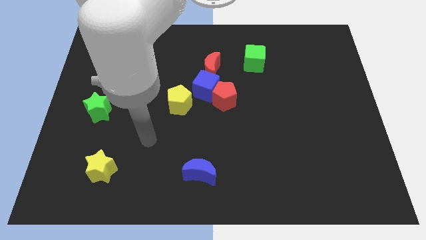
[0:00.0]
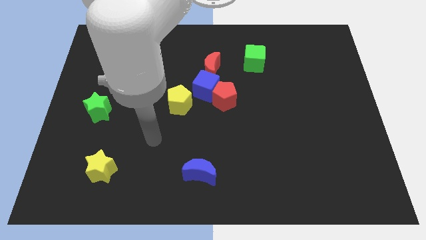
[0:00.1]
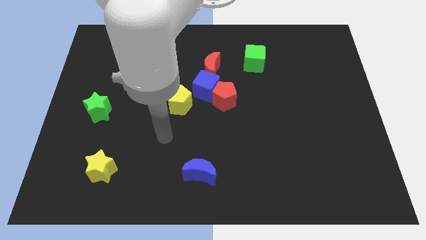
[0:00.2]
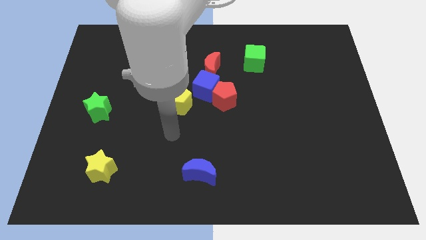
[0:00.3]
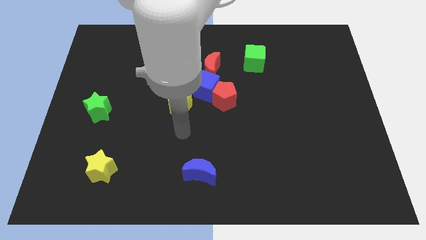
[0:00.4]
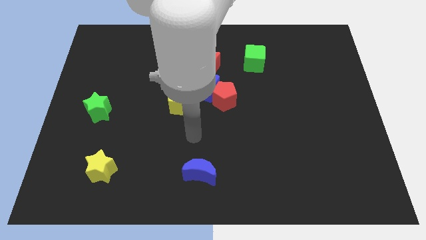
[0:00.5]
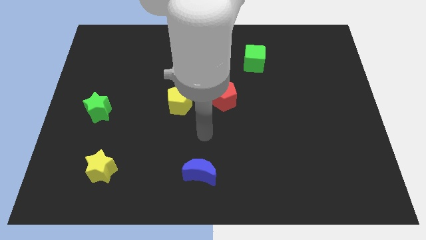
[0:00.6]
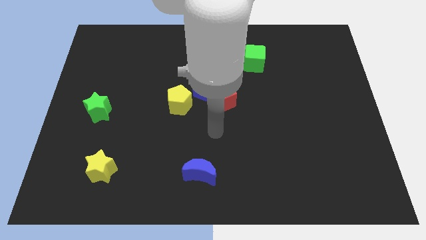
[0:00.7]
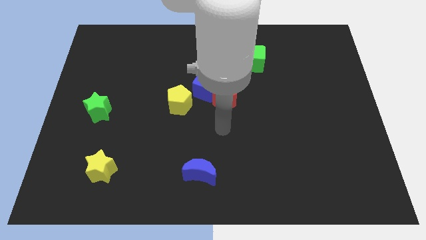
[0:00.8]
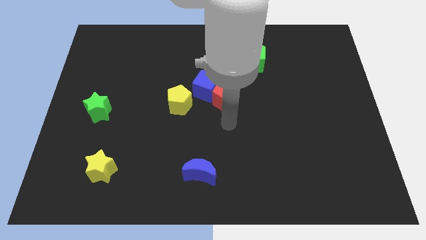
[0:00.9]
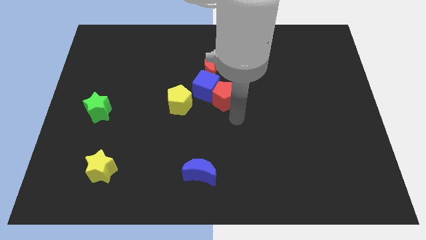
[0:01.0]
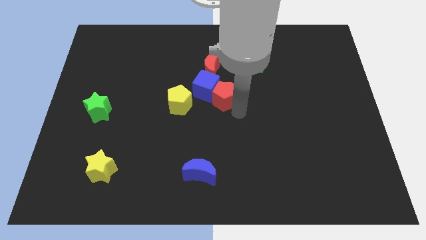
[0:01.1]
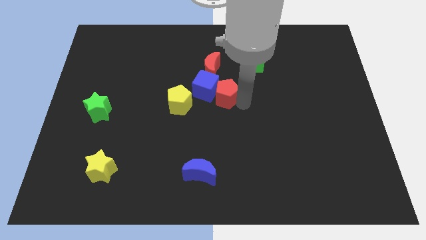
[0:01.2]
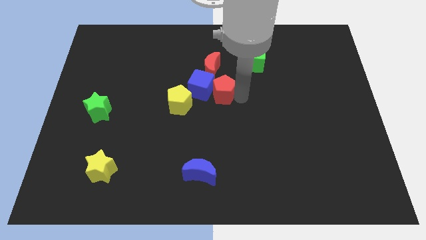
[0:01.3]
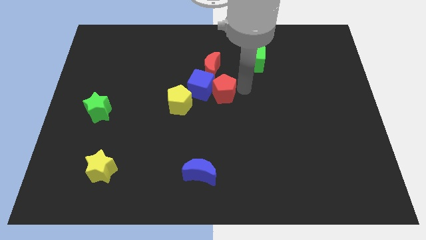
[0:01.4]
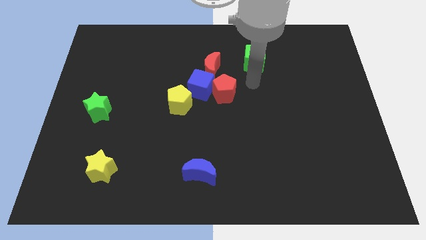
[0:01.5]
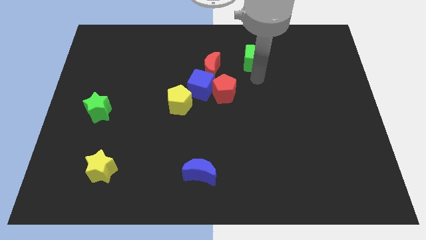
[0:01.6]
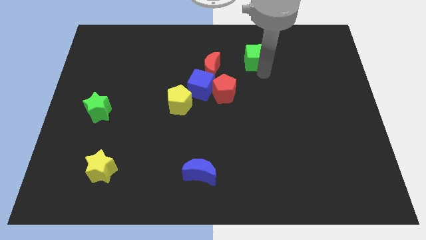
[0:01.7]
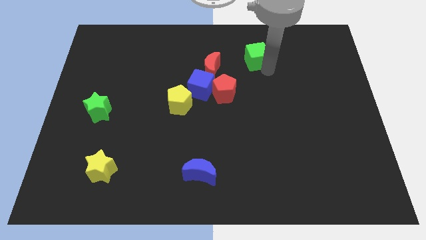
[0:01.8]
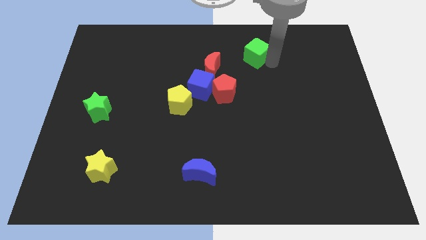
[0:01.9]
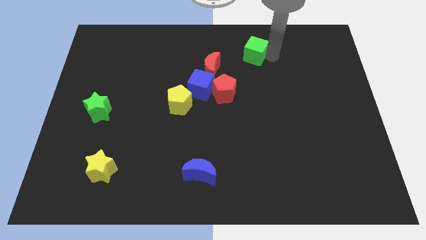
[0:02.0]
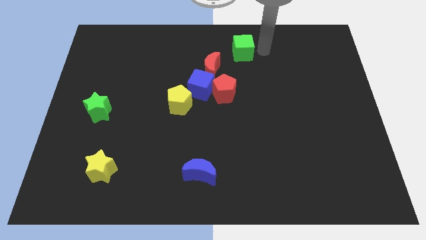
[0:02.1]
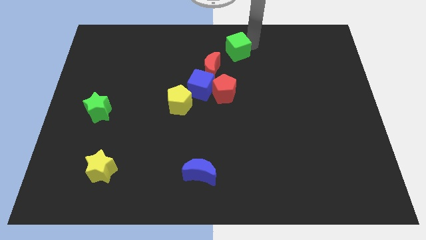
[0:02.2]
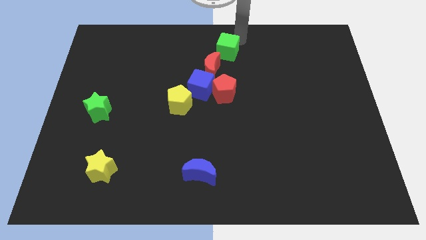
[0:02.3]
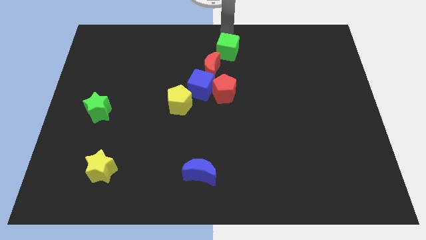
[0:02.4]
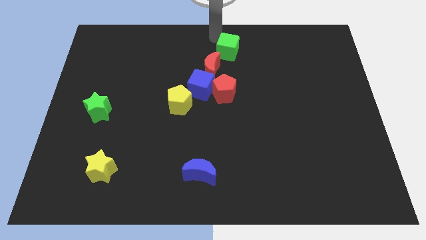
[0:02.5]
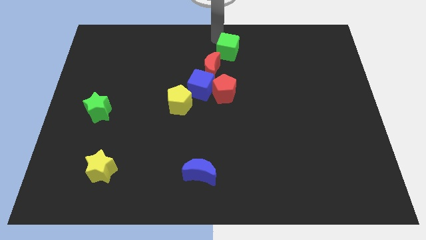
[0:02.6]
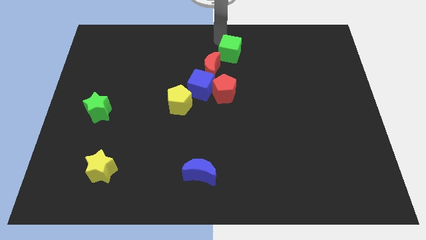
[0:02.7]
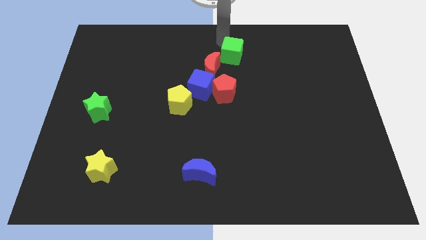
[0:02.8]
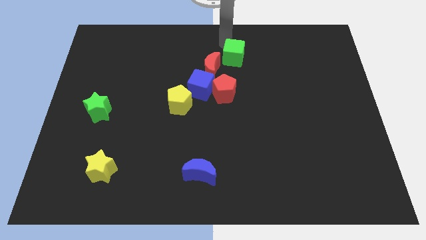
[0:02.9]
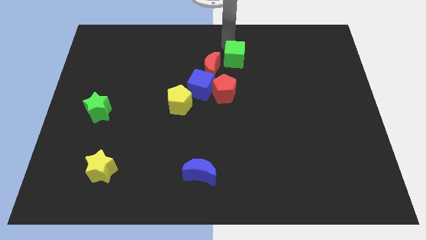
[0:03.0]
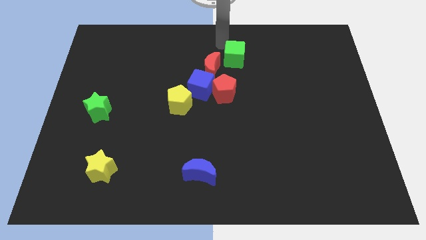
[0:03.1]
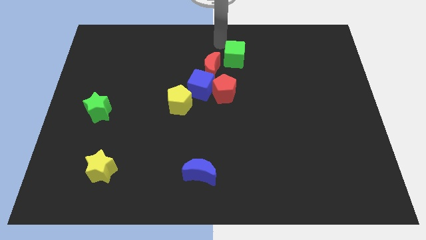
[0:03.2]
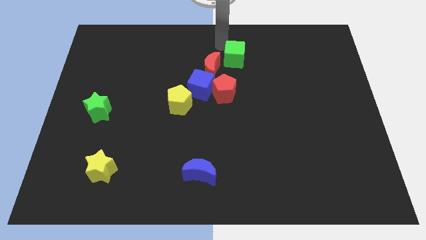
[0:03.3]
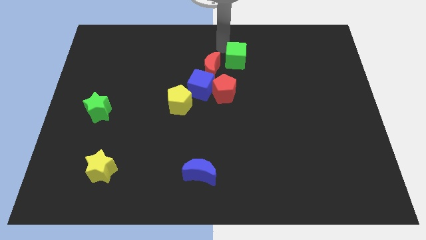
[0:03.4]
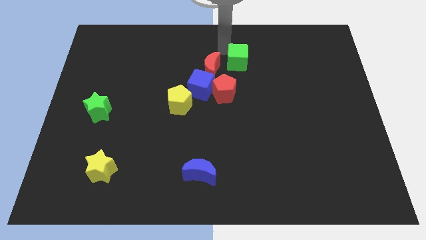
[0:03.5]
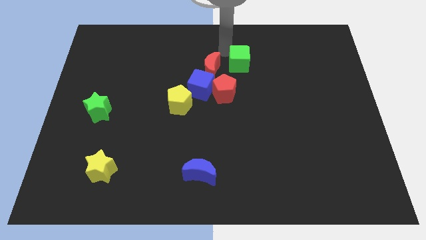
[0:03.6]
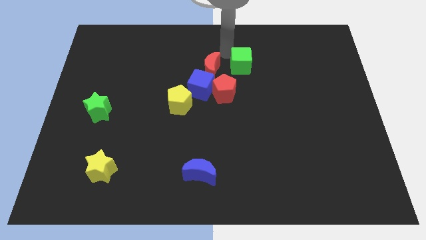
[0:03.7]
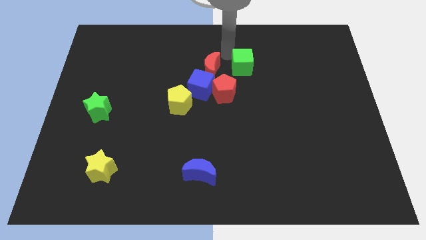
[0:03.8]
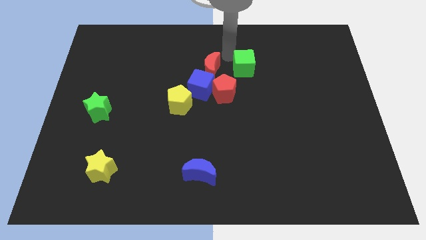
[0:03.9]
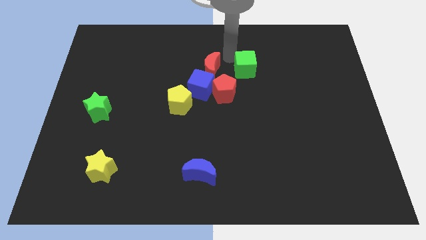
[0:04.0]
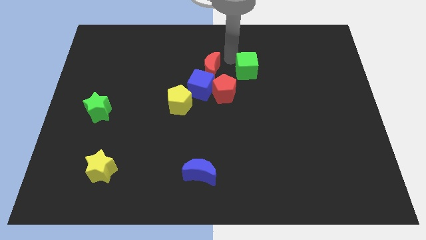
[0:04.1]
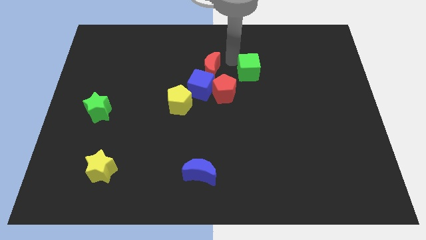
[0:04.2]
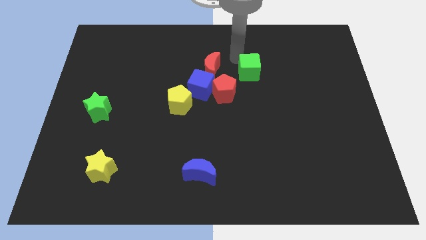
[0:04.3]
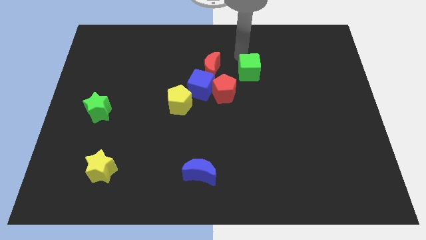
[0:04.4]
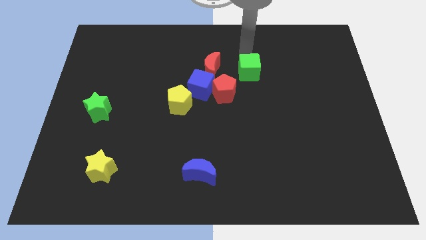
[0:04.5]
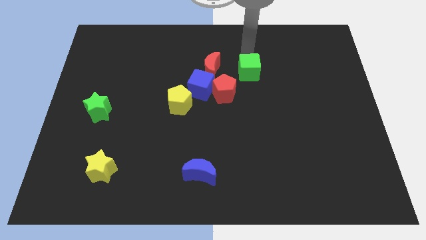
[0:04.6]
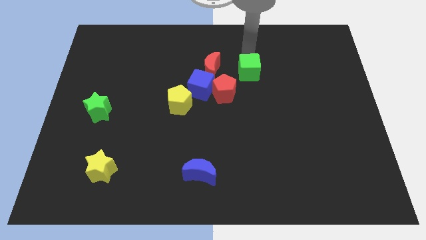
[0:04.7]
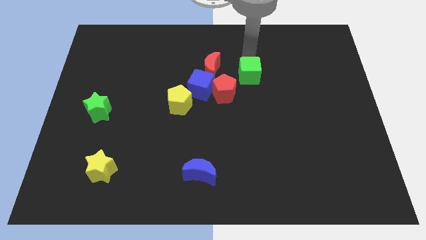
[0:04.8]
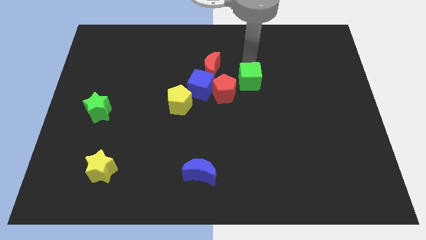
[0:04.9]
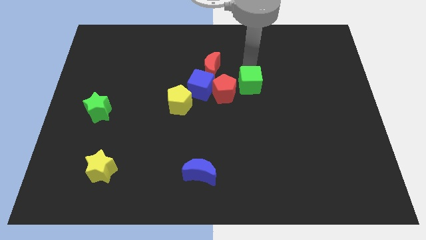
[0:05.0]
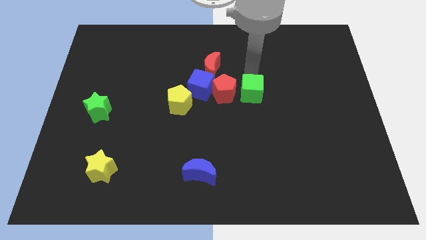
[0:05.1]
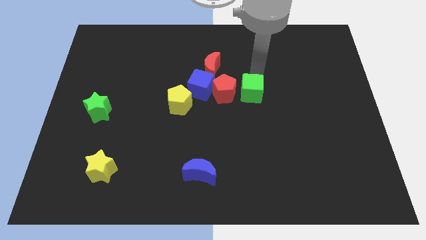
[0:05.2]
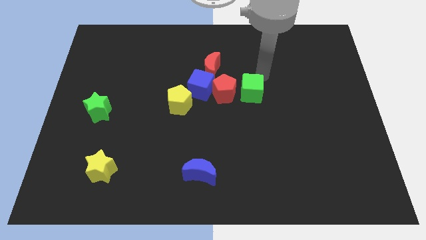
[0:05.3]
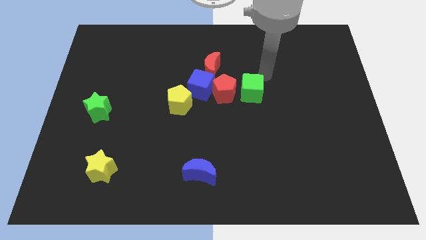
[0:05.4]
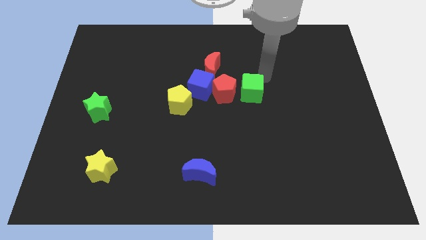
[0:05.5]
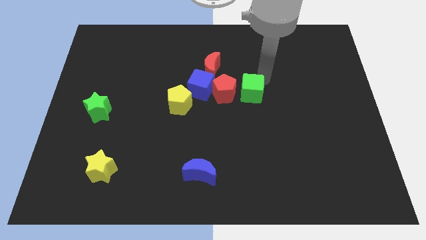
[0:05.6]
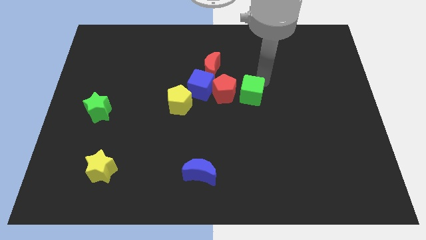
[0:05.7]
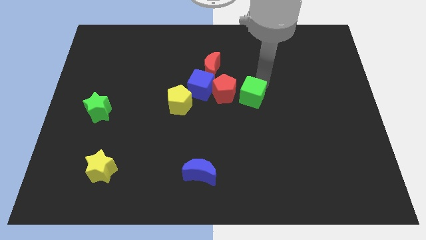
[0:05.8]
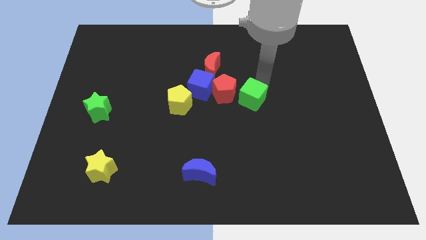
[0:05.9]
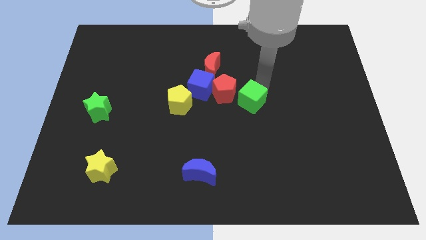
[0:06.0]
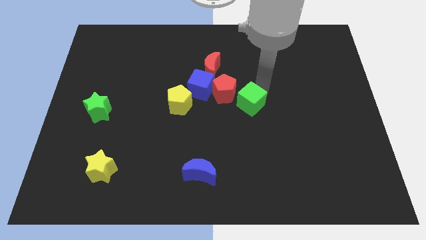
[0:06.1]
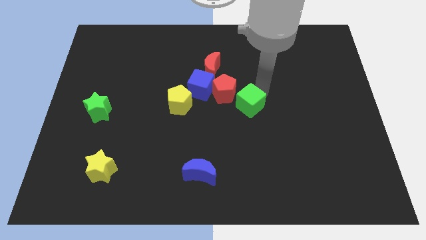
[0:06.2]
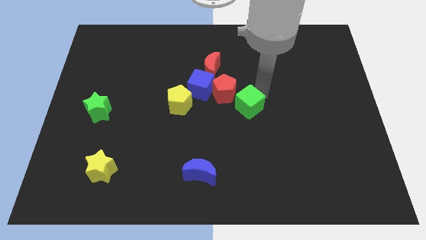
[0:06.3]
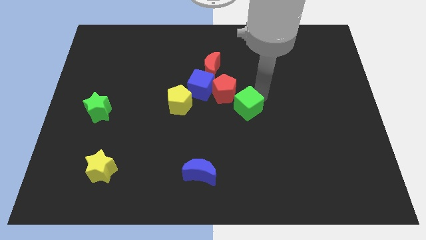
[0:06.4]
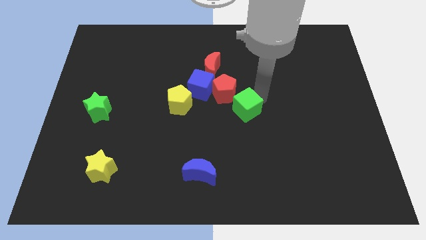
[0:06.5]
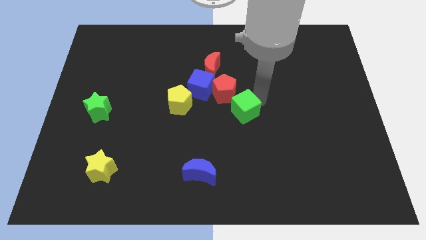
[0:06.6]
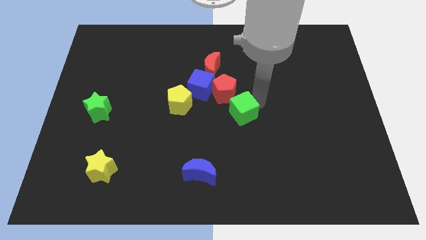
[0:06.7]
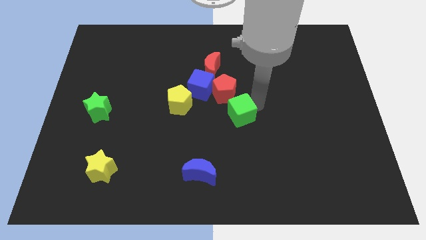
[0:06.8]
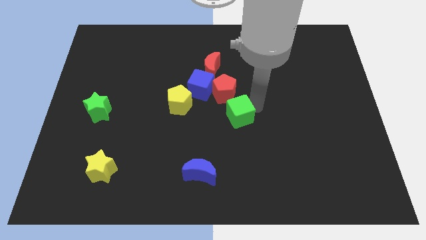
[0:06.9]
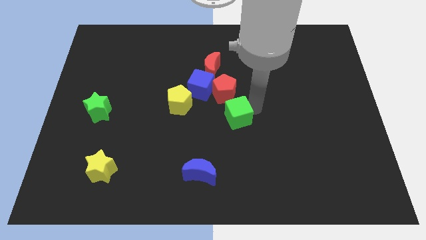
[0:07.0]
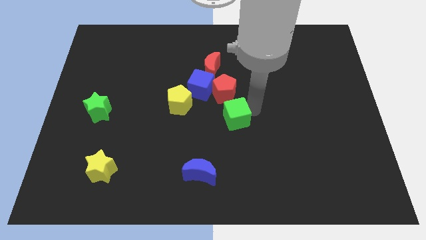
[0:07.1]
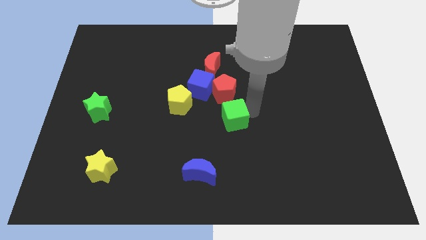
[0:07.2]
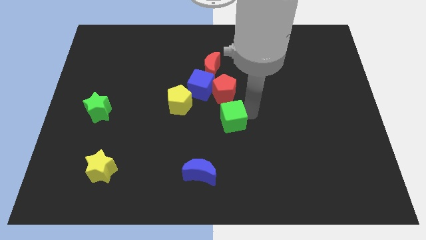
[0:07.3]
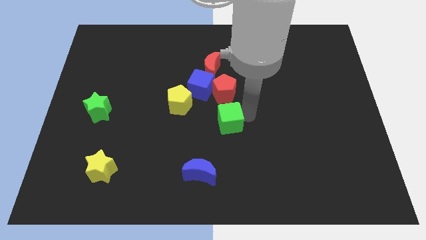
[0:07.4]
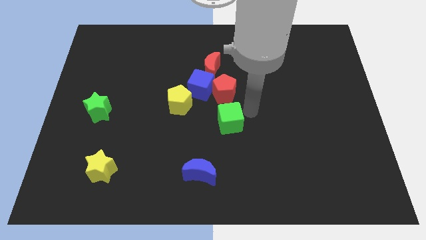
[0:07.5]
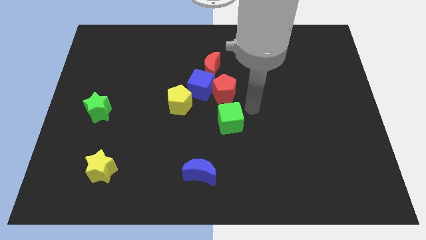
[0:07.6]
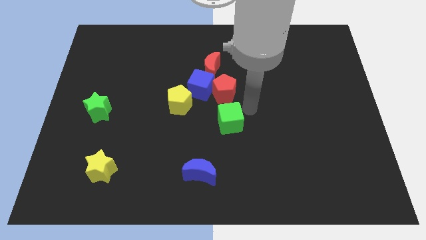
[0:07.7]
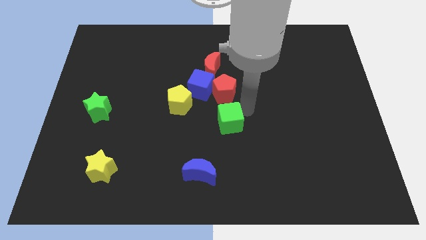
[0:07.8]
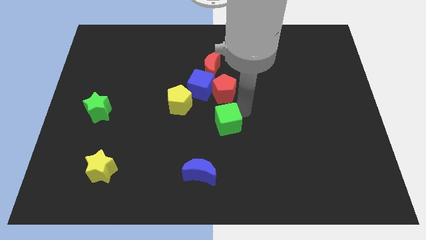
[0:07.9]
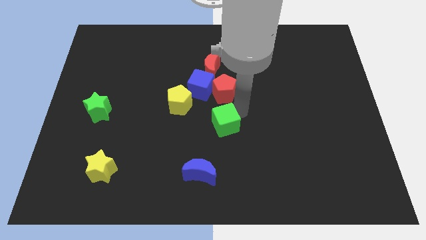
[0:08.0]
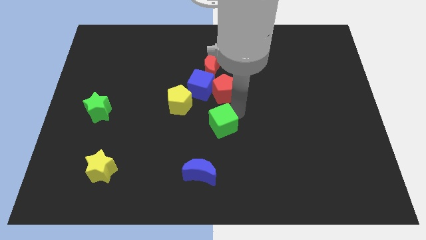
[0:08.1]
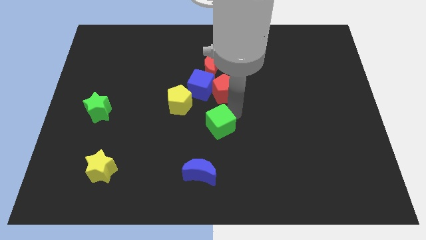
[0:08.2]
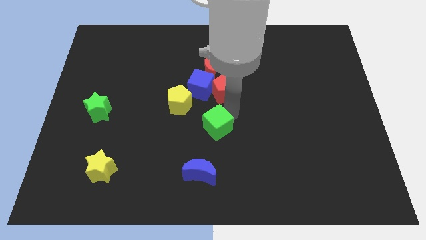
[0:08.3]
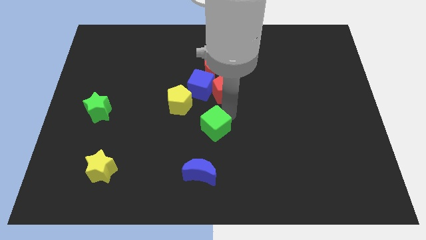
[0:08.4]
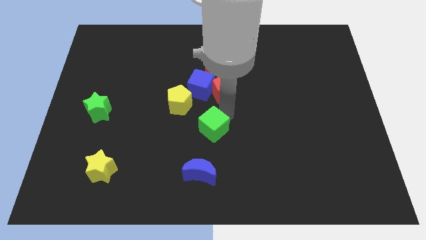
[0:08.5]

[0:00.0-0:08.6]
push the green cube down and left
